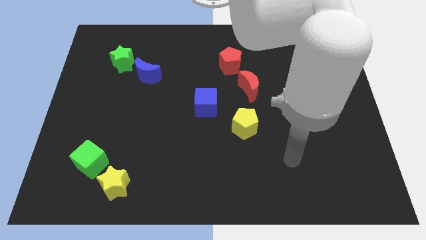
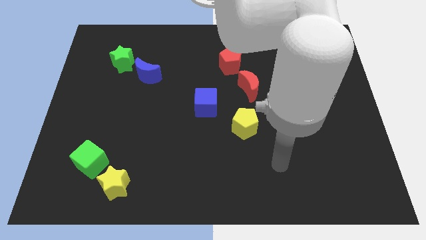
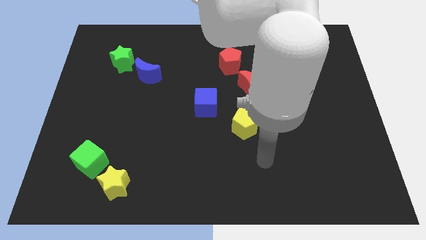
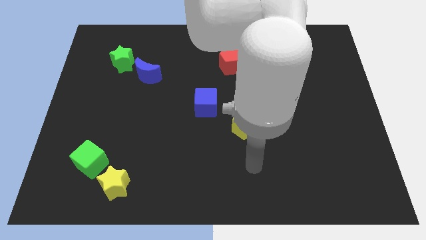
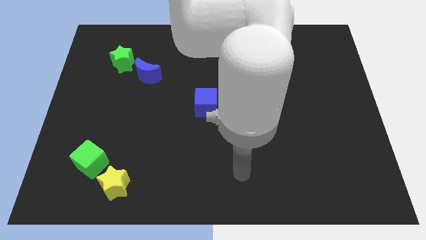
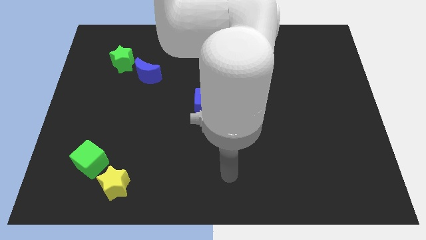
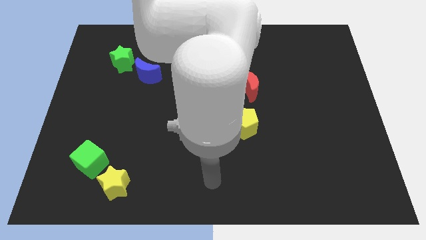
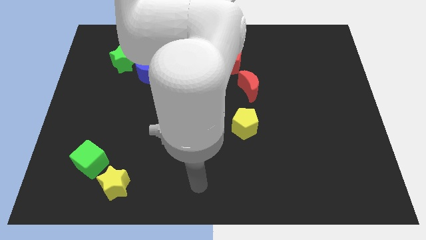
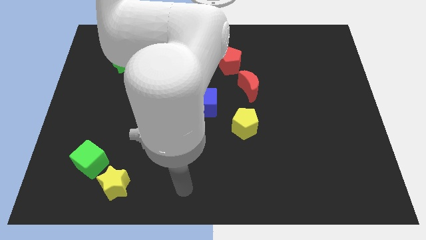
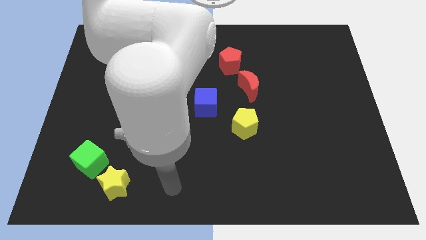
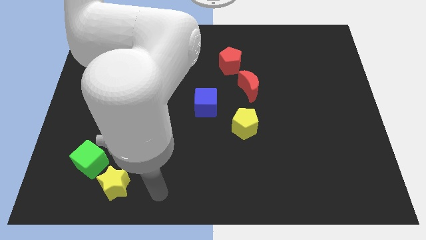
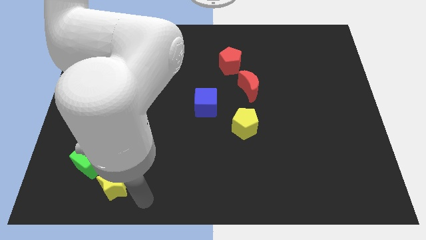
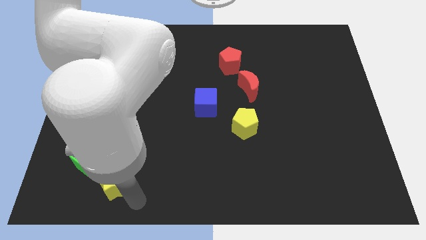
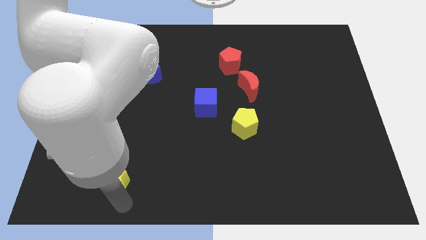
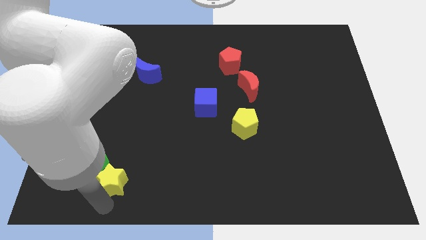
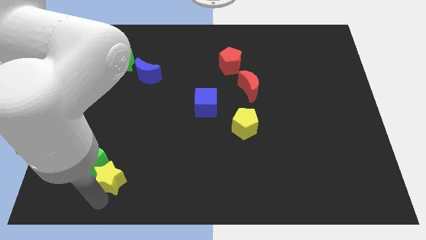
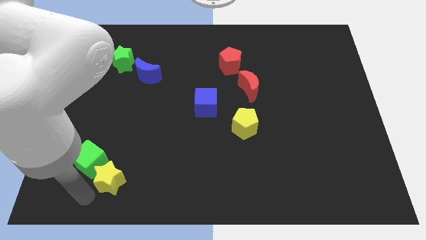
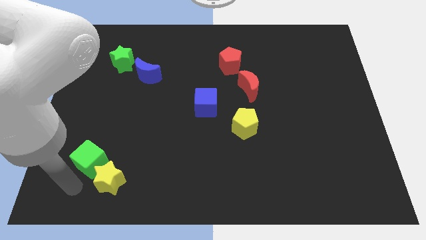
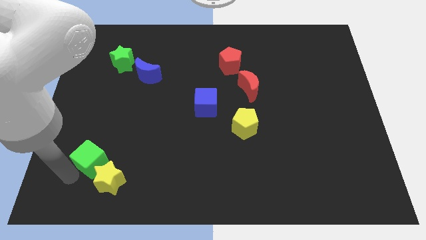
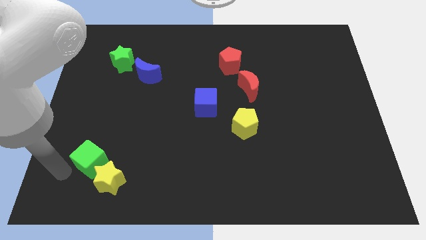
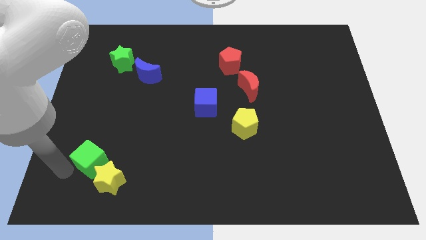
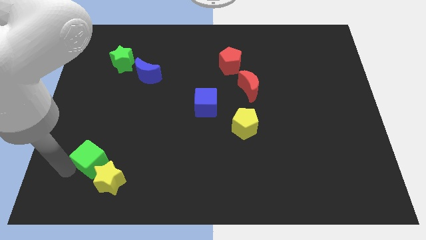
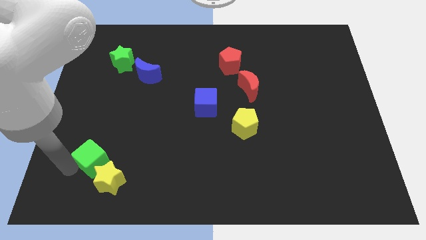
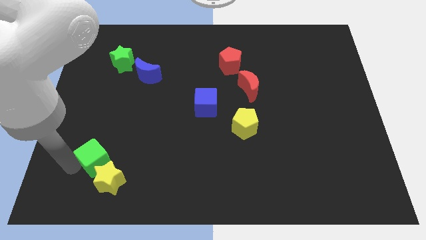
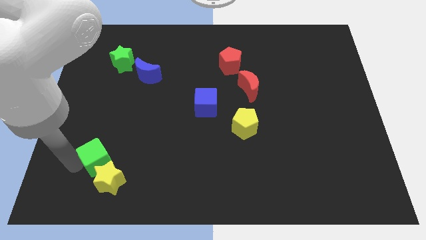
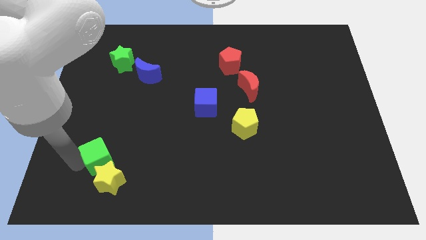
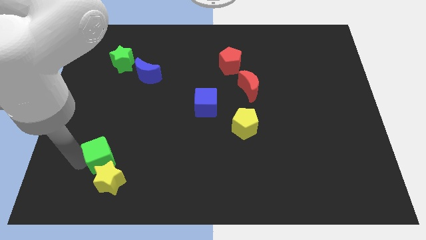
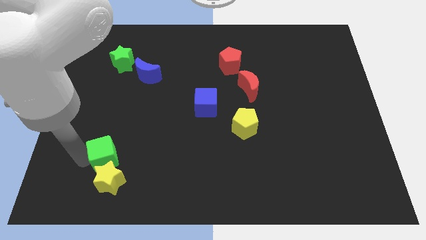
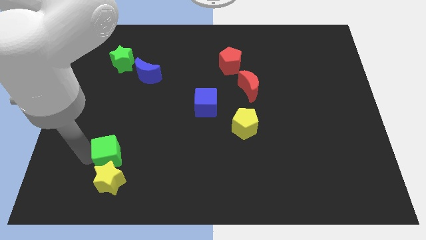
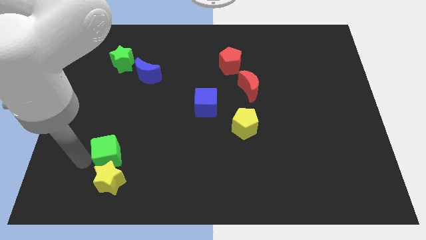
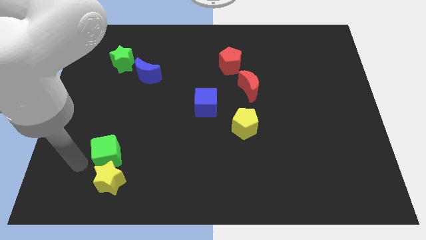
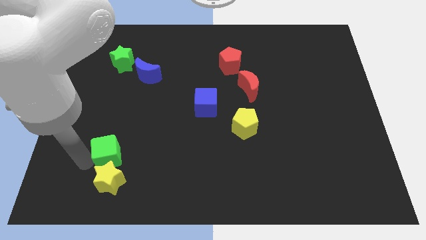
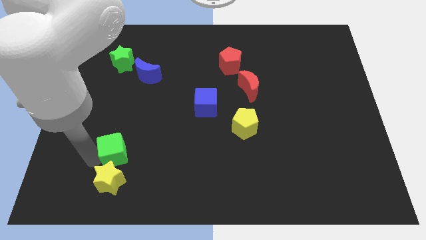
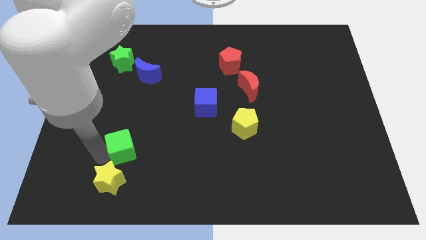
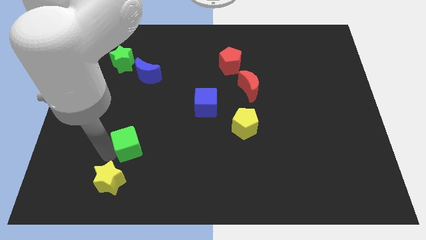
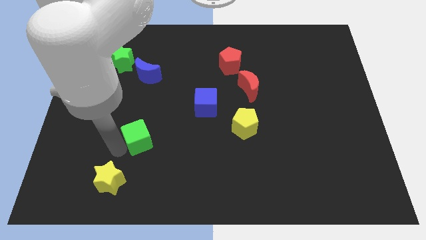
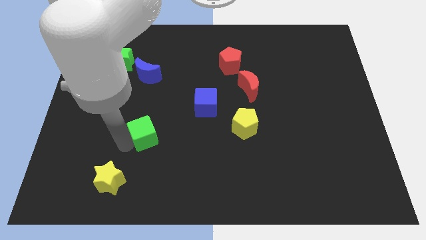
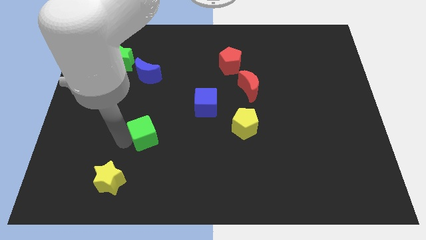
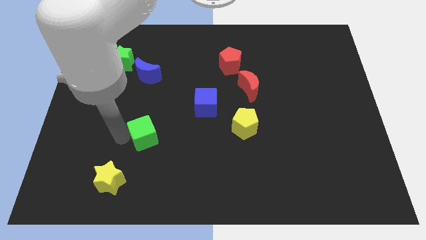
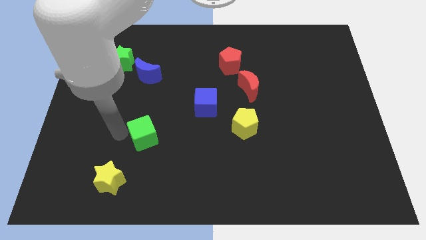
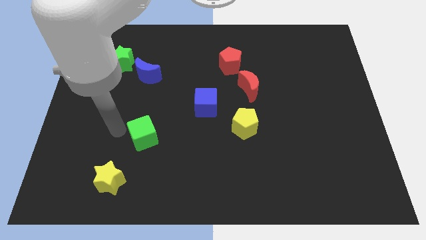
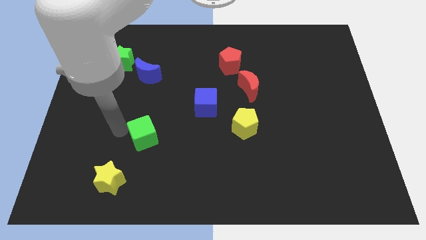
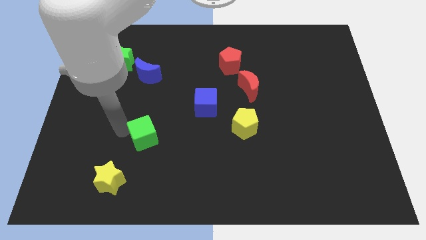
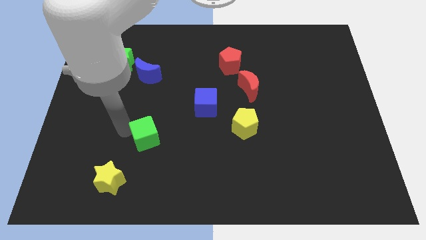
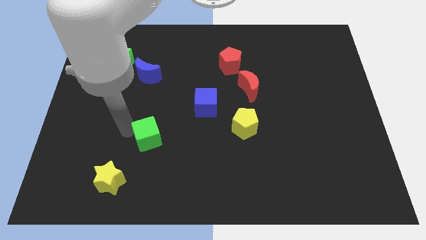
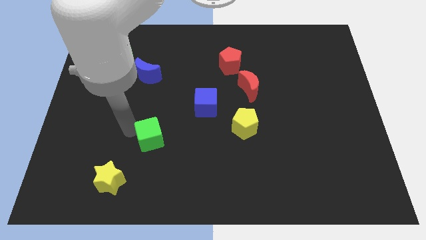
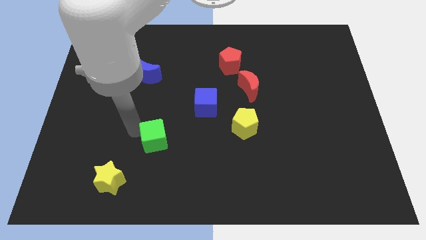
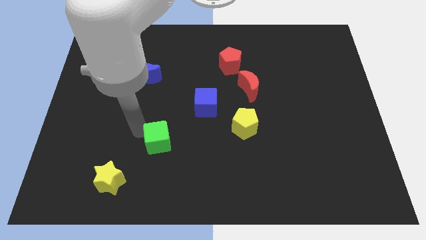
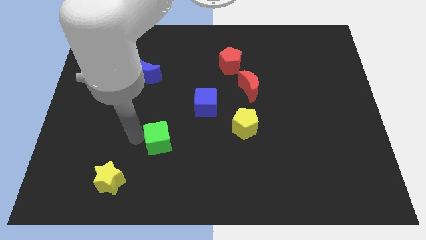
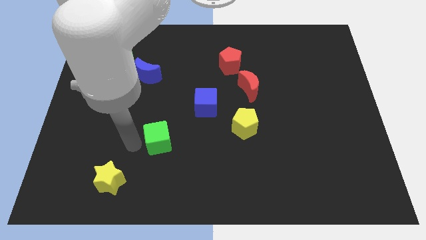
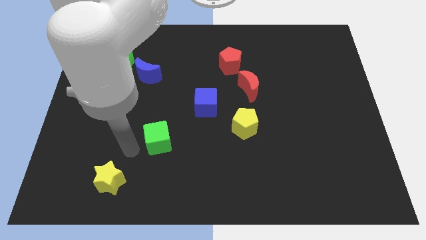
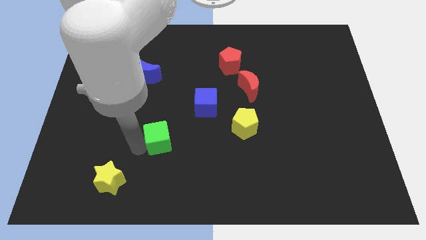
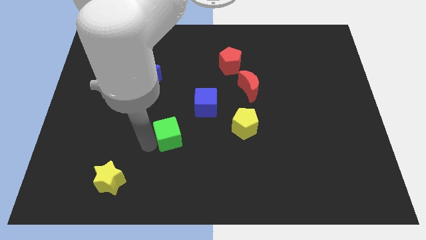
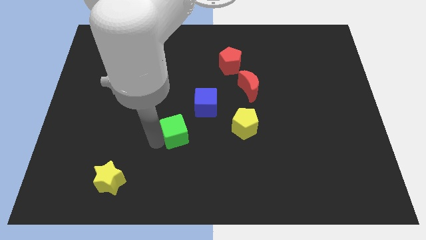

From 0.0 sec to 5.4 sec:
put the green cube left of the yellow pentagon

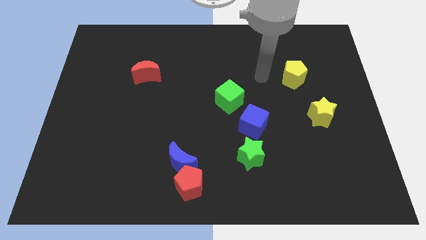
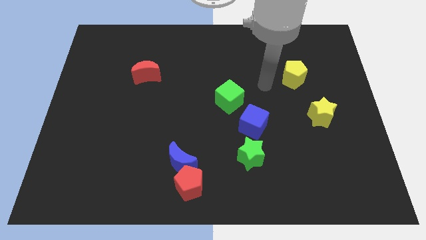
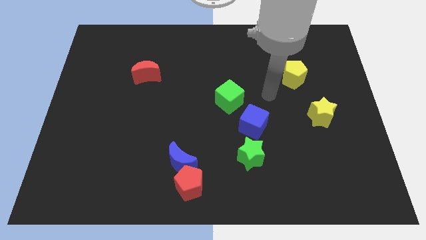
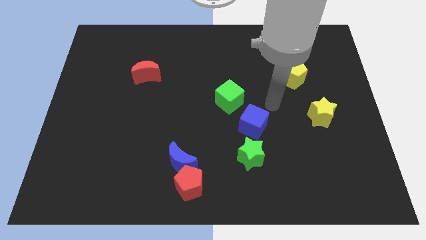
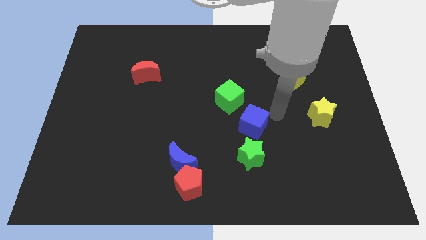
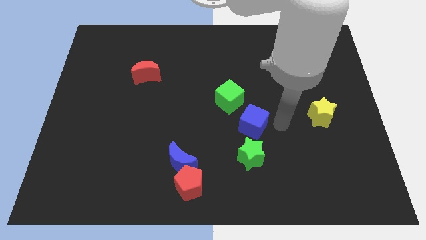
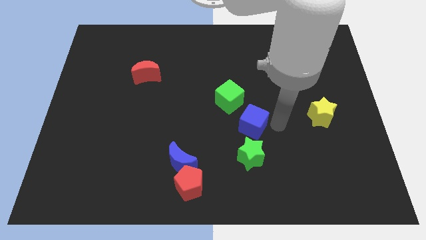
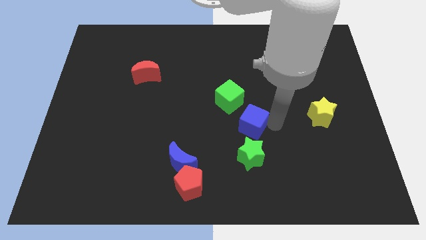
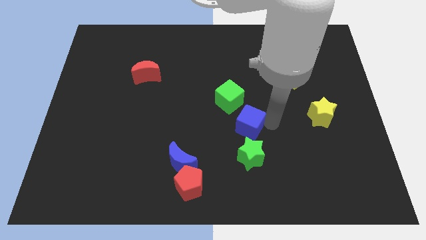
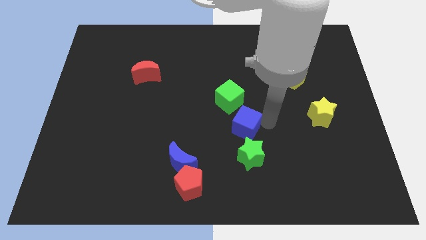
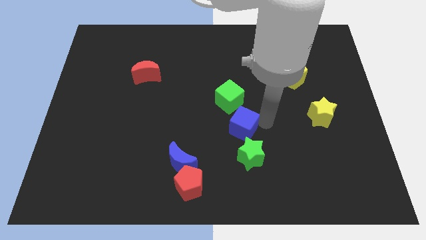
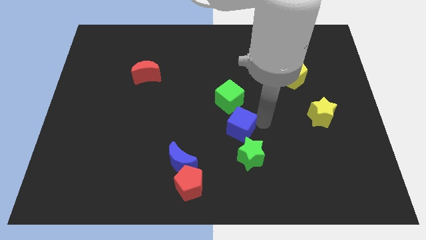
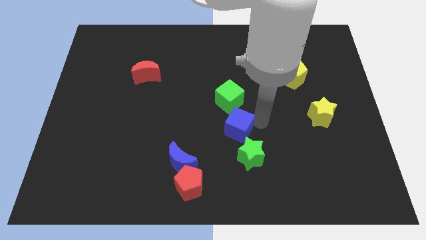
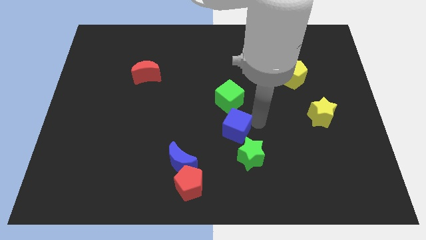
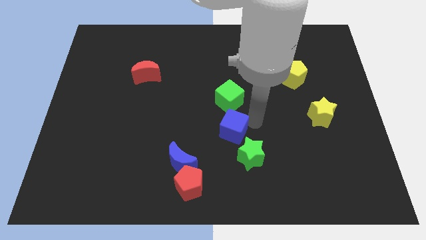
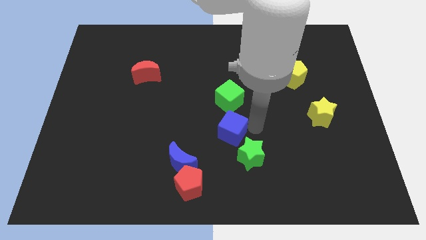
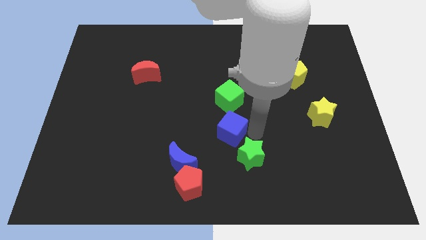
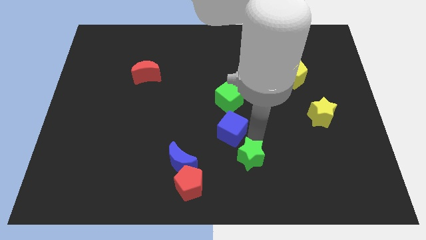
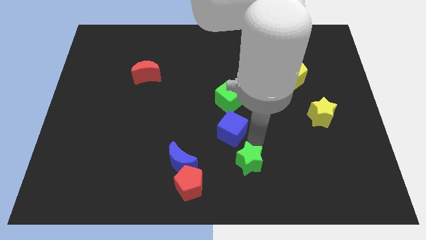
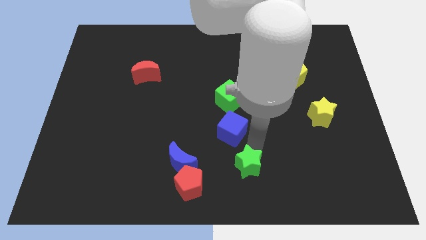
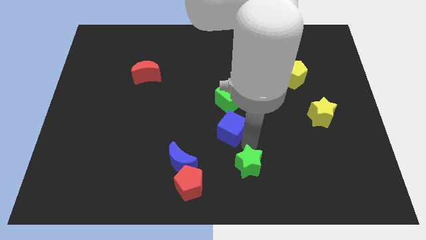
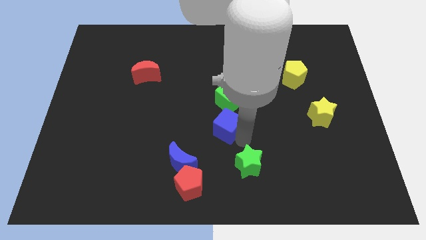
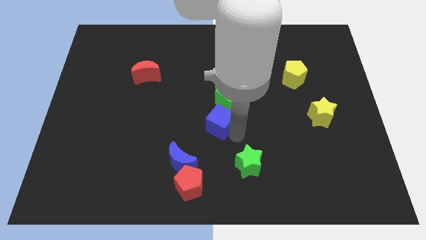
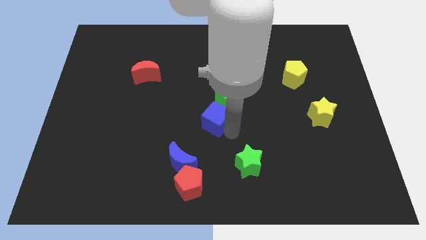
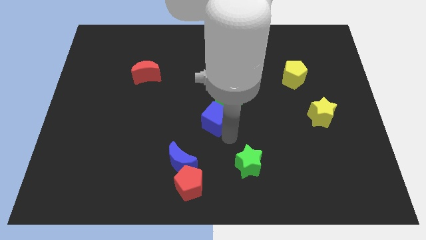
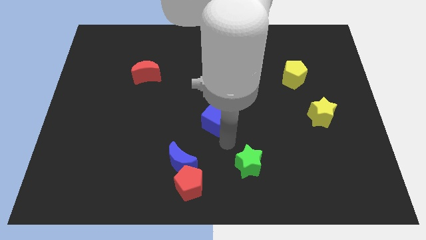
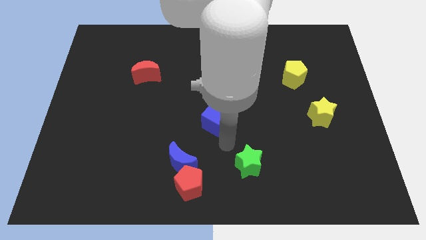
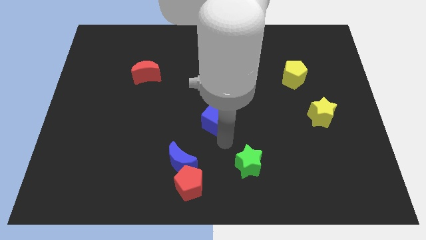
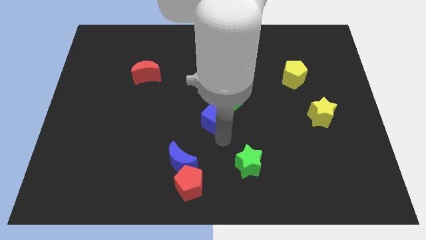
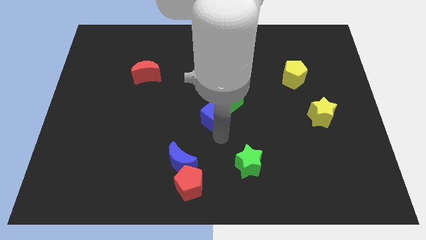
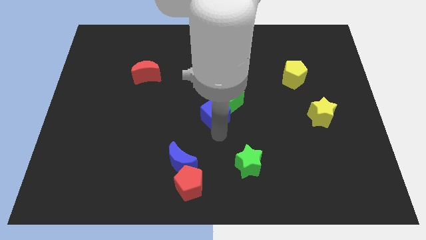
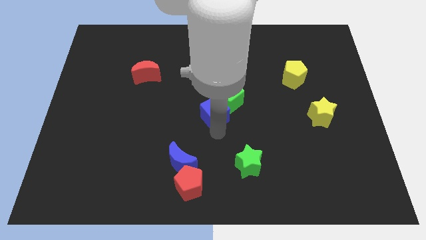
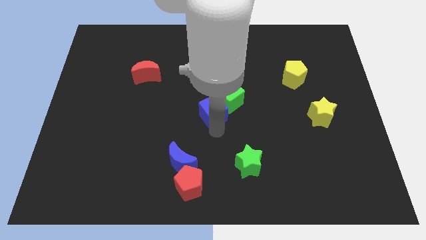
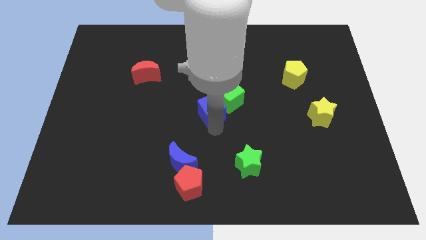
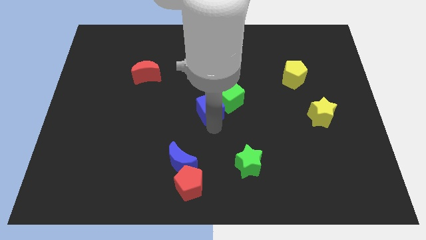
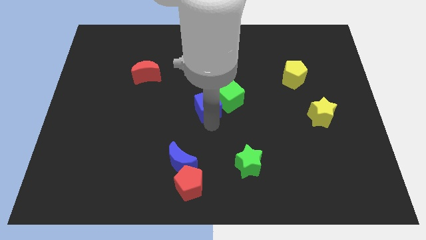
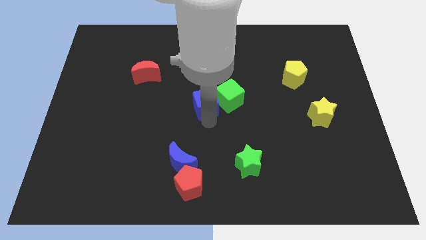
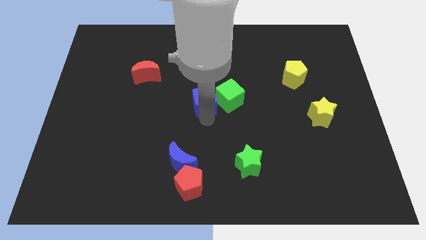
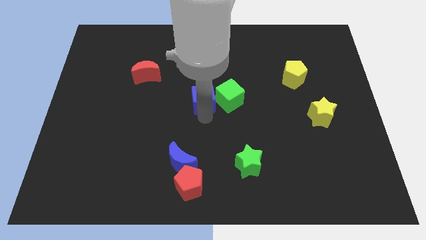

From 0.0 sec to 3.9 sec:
move the blue cube to the top left side of the green cube
